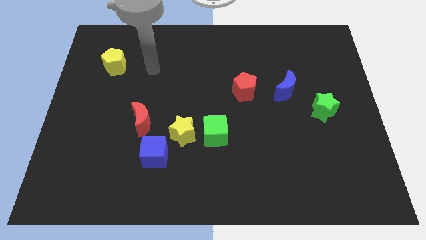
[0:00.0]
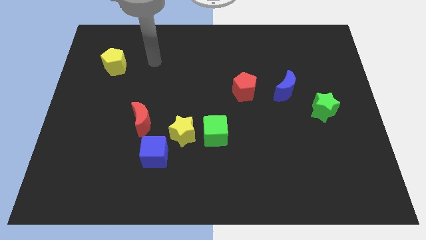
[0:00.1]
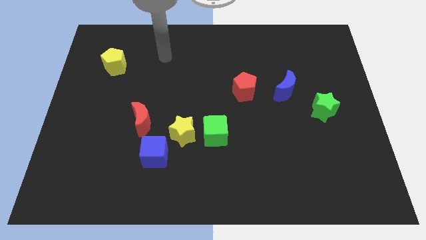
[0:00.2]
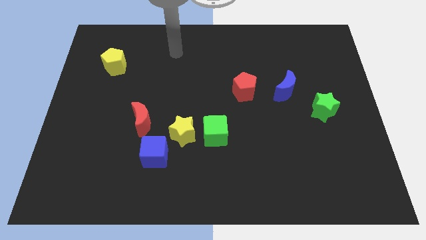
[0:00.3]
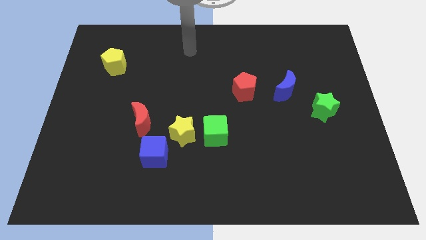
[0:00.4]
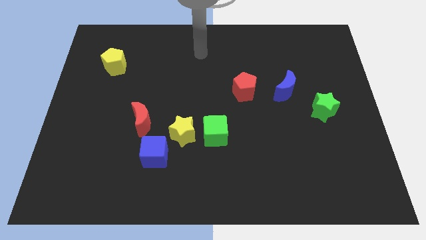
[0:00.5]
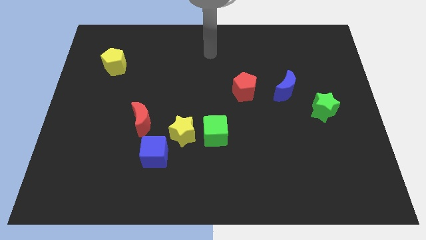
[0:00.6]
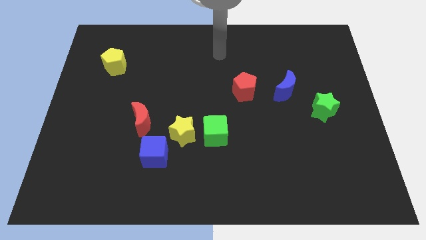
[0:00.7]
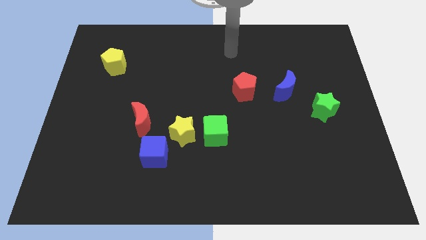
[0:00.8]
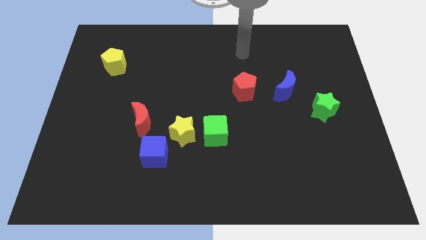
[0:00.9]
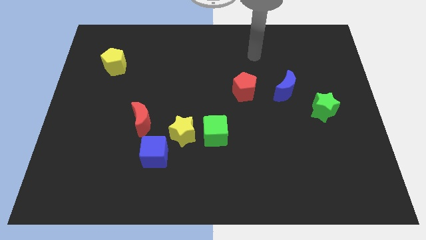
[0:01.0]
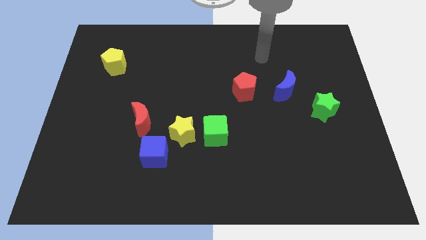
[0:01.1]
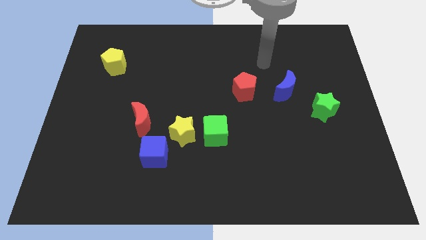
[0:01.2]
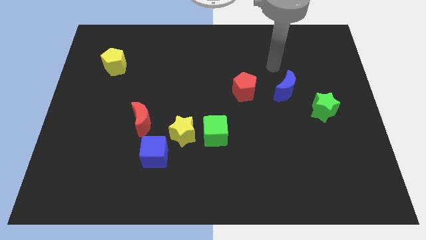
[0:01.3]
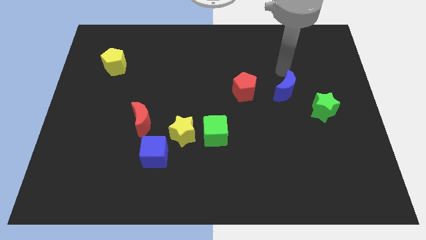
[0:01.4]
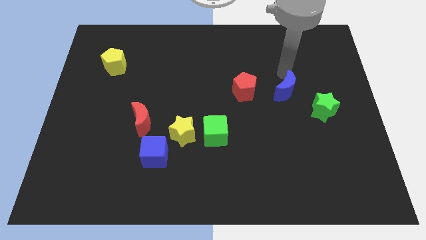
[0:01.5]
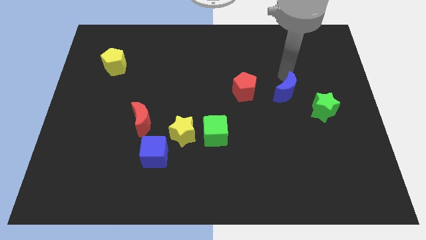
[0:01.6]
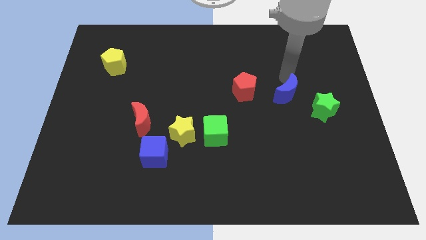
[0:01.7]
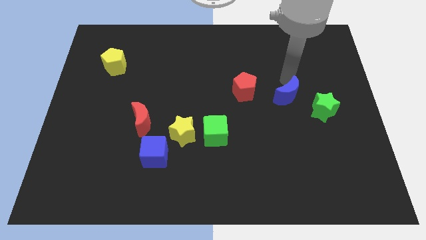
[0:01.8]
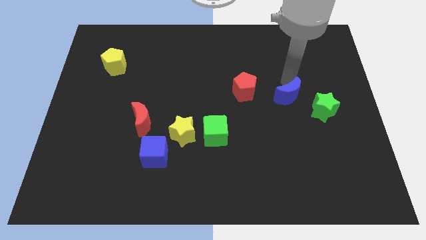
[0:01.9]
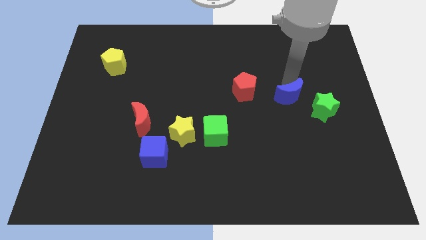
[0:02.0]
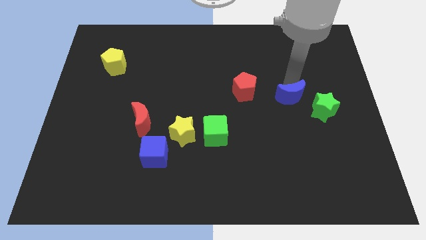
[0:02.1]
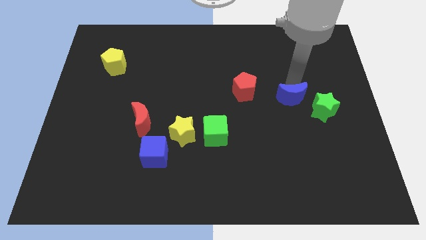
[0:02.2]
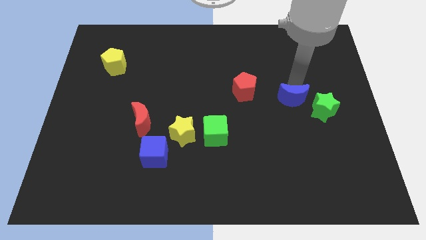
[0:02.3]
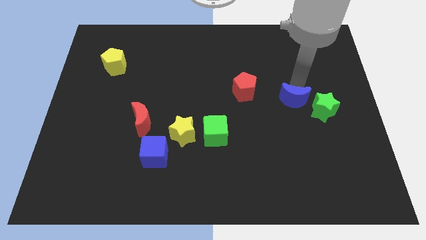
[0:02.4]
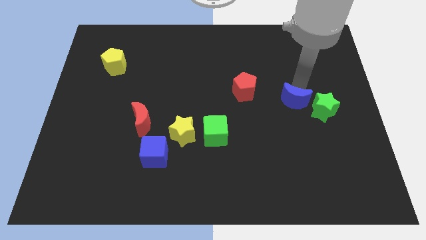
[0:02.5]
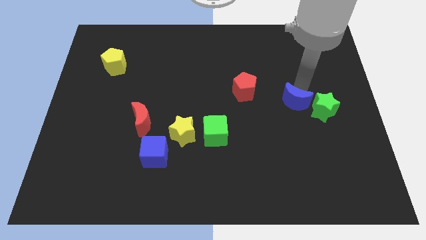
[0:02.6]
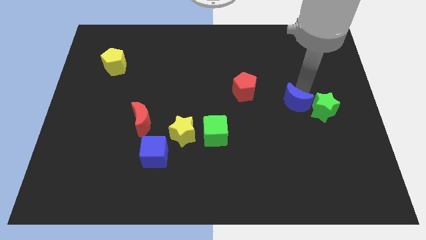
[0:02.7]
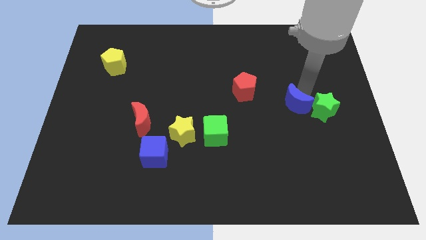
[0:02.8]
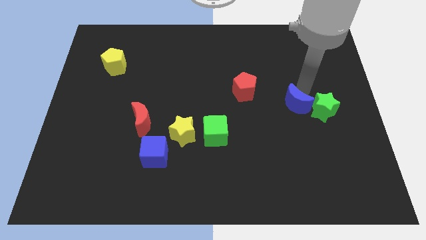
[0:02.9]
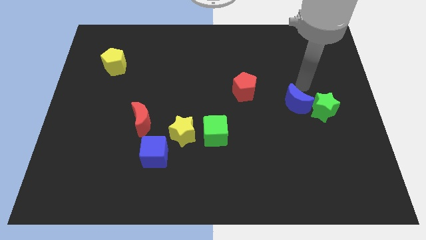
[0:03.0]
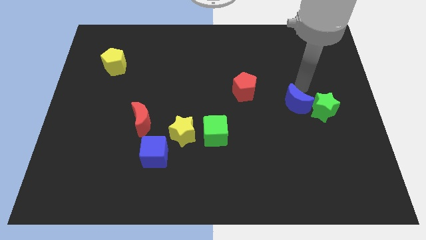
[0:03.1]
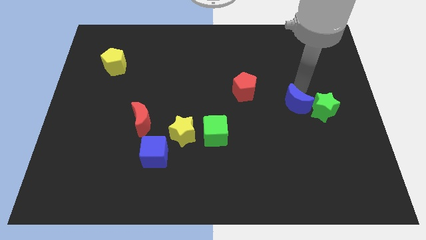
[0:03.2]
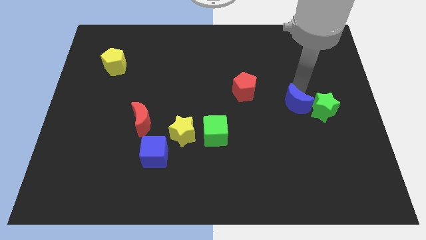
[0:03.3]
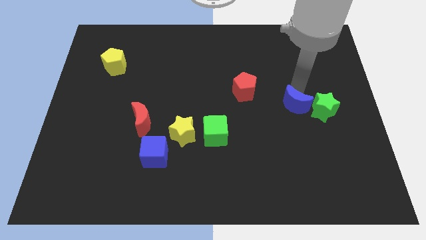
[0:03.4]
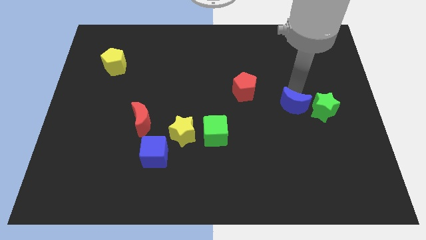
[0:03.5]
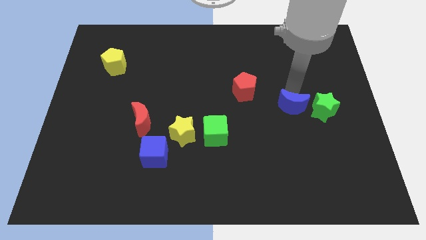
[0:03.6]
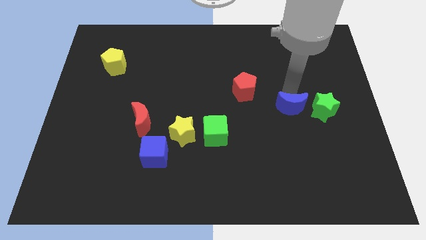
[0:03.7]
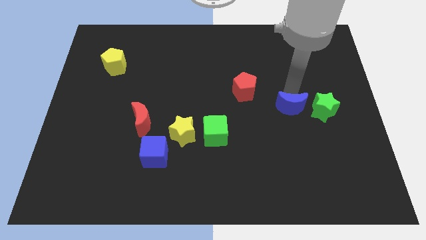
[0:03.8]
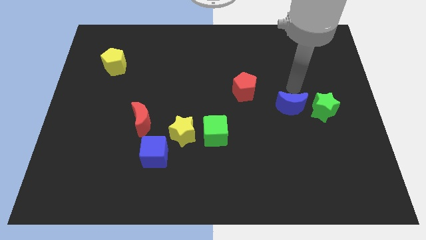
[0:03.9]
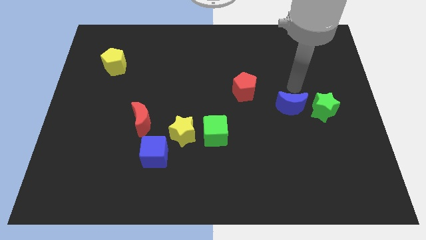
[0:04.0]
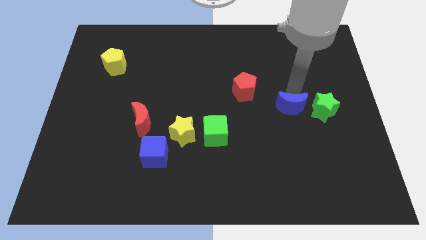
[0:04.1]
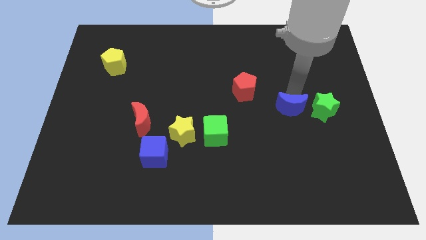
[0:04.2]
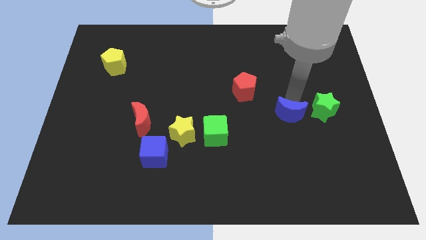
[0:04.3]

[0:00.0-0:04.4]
slide the blue moon downwards a little

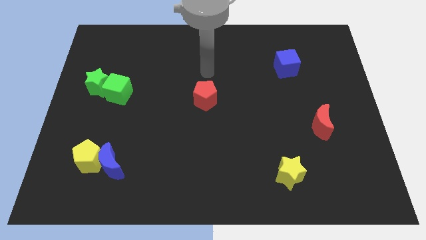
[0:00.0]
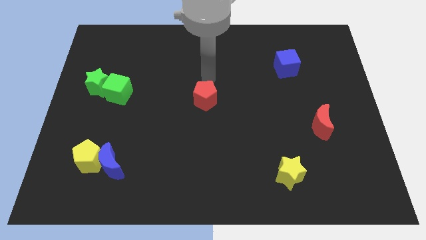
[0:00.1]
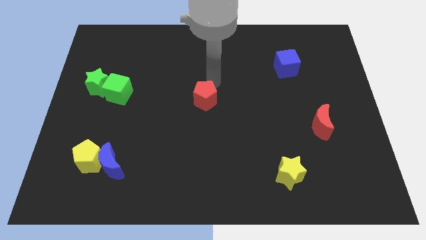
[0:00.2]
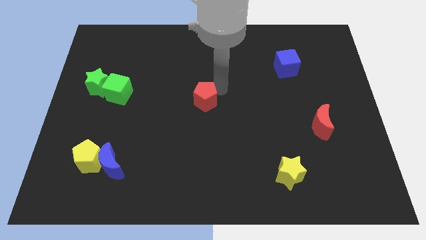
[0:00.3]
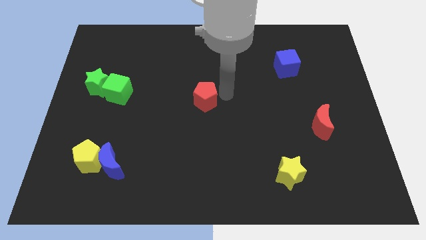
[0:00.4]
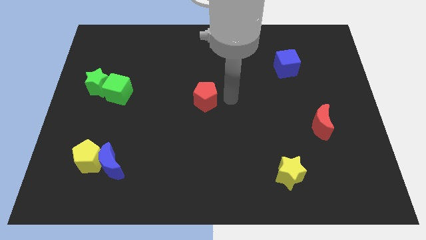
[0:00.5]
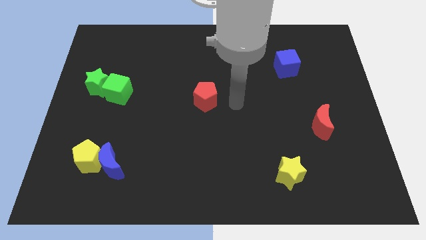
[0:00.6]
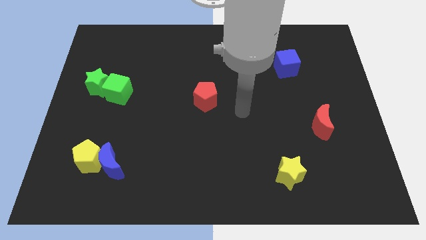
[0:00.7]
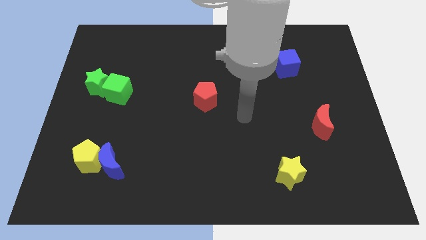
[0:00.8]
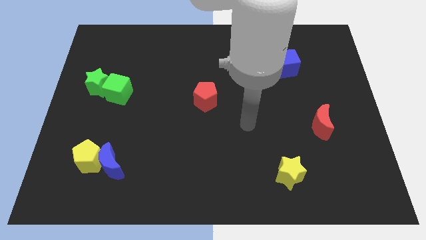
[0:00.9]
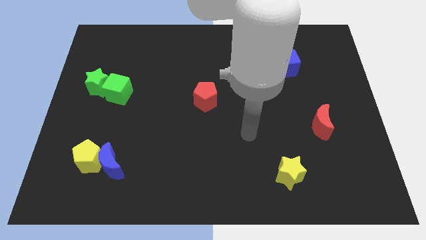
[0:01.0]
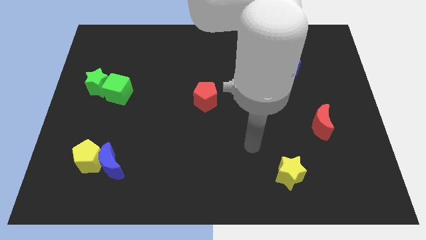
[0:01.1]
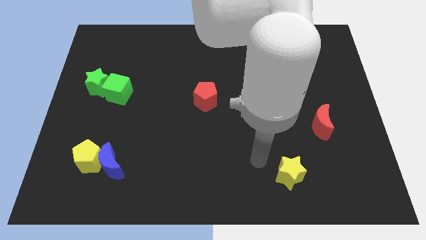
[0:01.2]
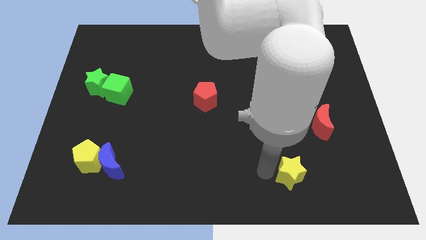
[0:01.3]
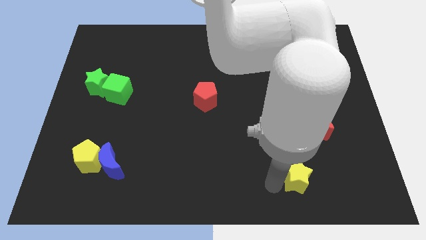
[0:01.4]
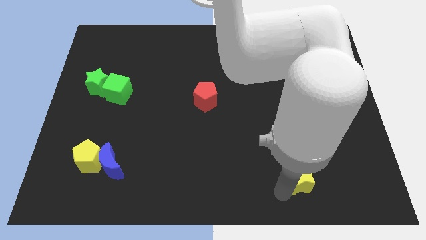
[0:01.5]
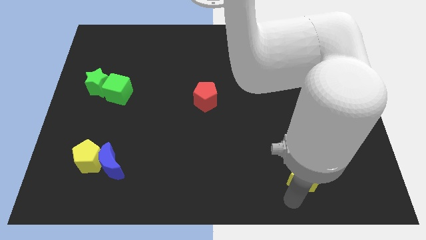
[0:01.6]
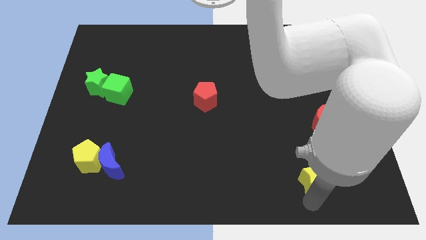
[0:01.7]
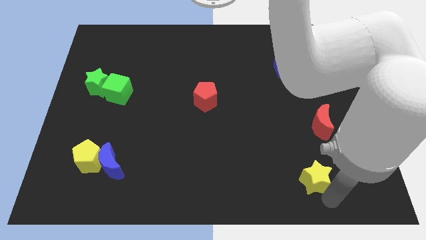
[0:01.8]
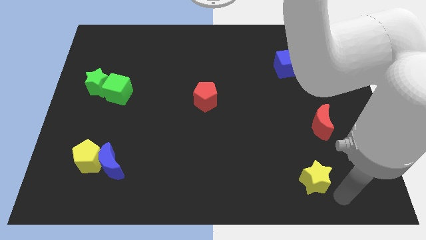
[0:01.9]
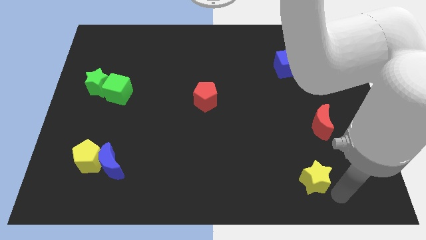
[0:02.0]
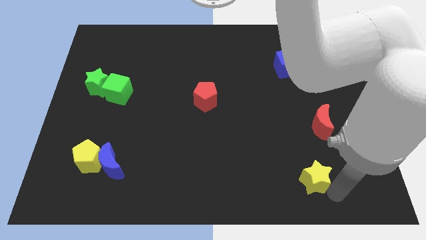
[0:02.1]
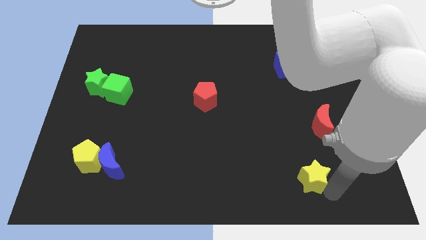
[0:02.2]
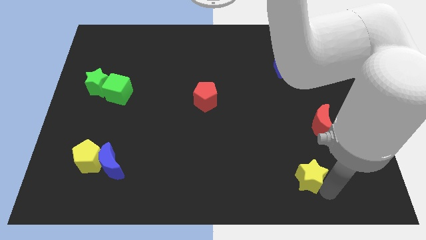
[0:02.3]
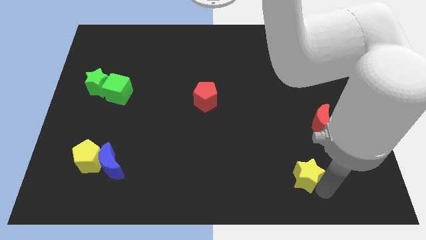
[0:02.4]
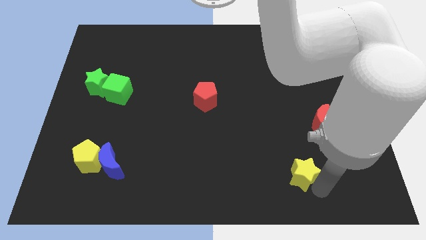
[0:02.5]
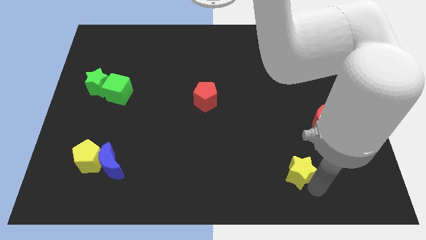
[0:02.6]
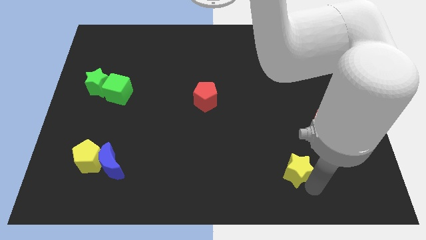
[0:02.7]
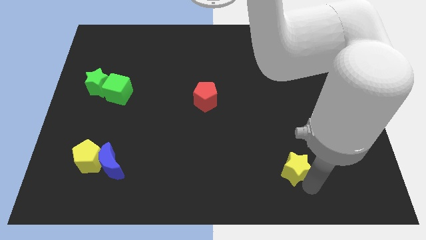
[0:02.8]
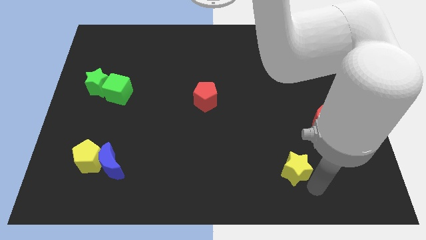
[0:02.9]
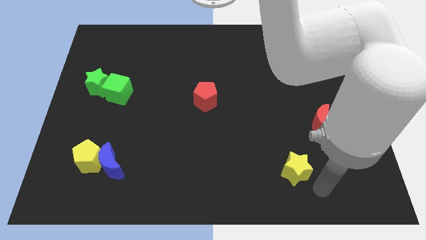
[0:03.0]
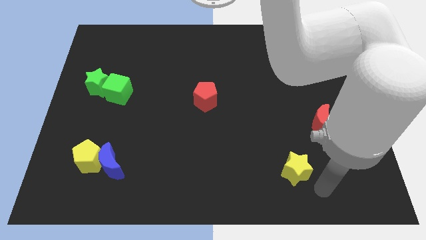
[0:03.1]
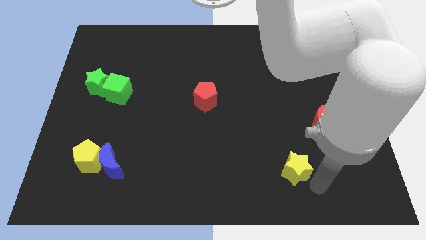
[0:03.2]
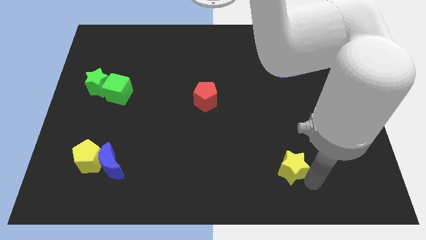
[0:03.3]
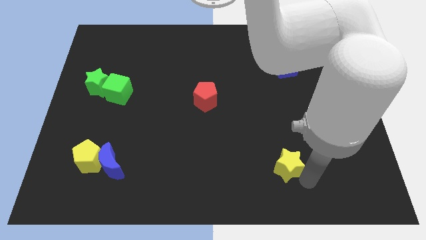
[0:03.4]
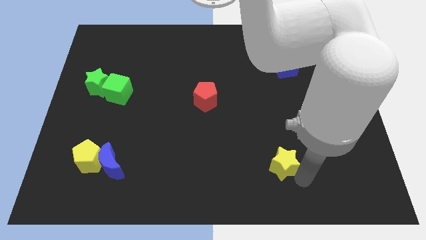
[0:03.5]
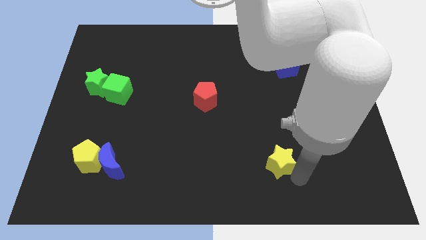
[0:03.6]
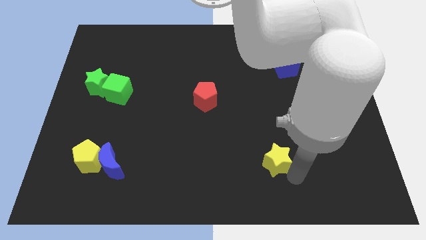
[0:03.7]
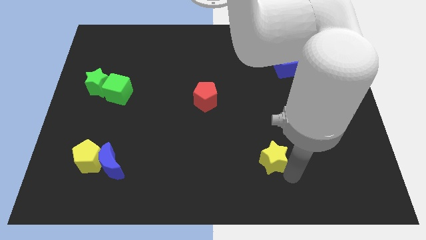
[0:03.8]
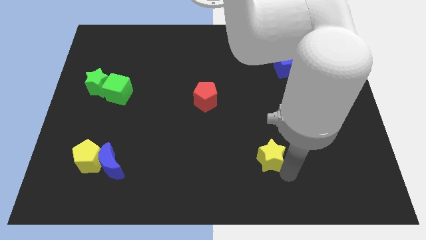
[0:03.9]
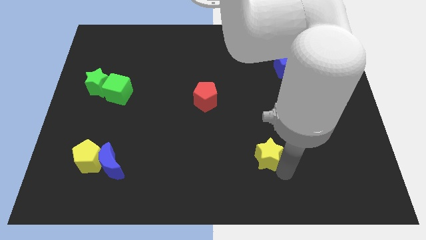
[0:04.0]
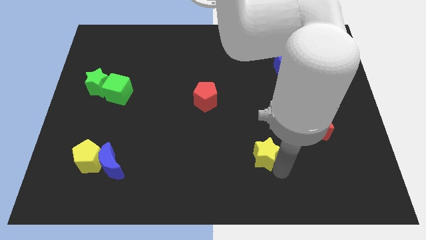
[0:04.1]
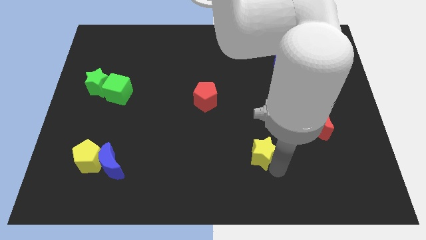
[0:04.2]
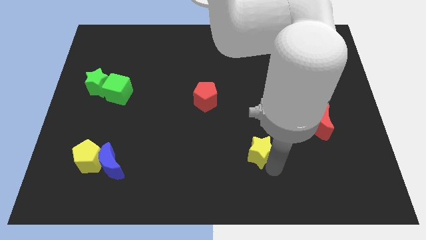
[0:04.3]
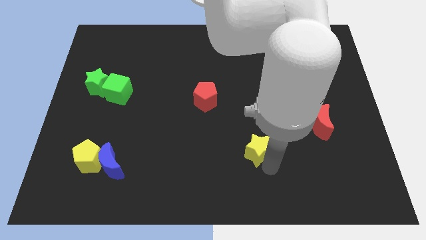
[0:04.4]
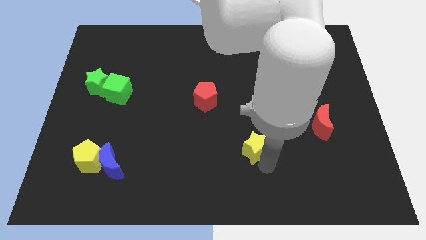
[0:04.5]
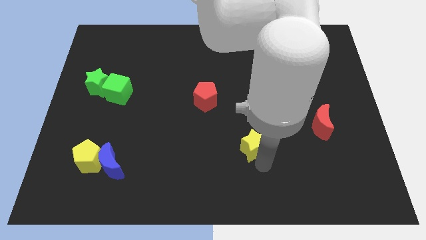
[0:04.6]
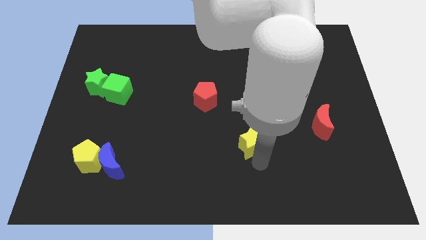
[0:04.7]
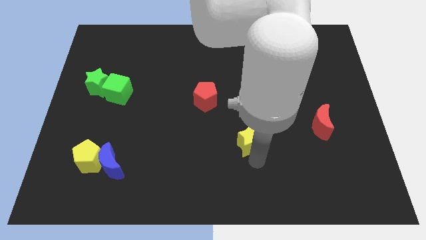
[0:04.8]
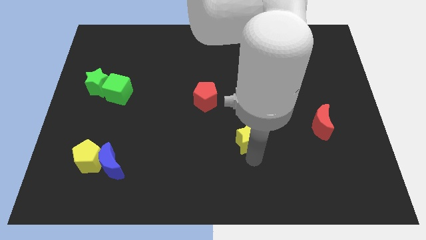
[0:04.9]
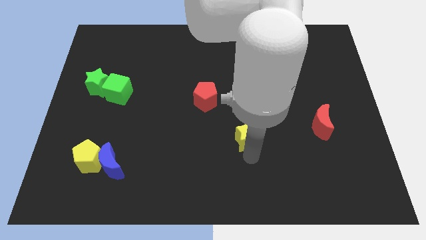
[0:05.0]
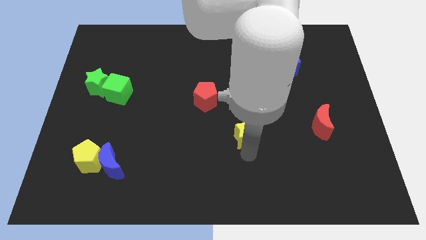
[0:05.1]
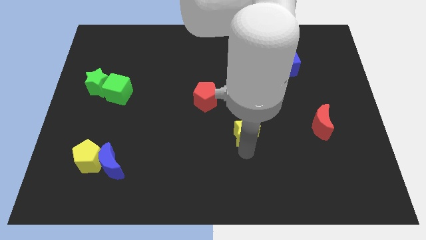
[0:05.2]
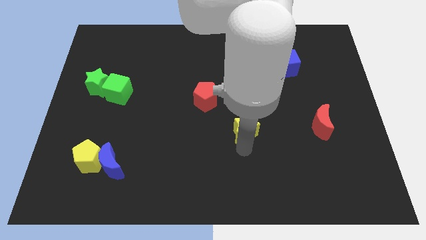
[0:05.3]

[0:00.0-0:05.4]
slide the yellow star a little upwards
